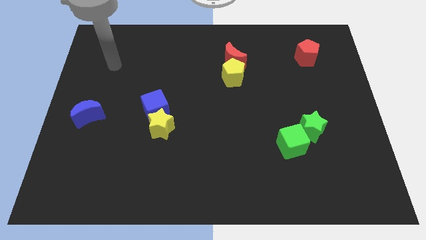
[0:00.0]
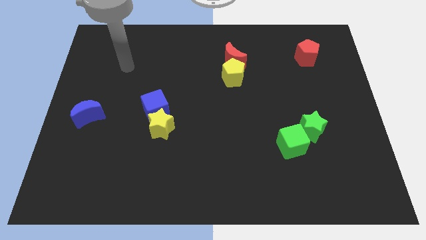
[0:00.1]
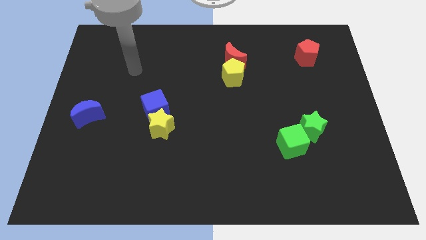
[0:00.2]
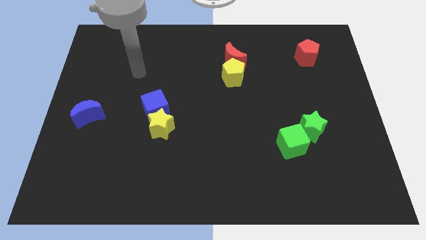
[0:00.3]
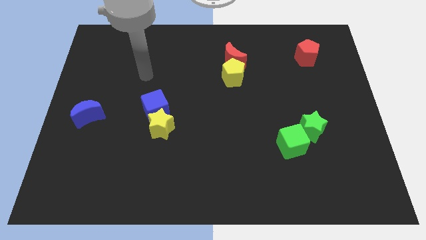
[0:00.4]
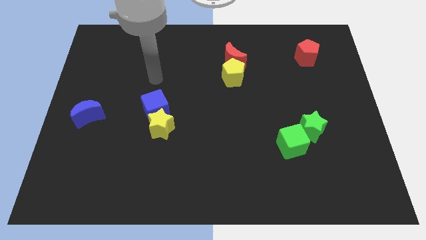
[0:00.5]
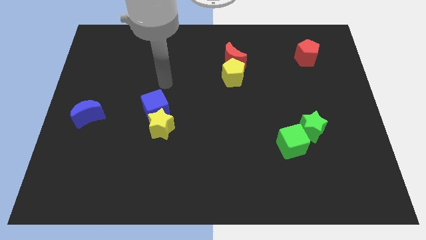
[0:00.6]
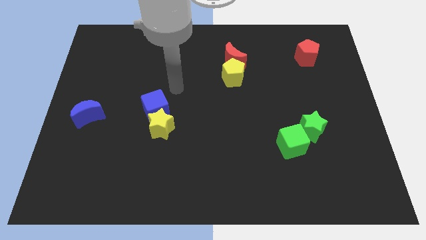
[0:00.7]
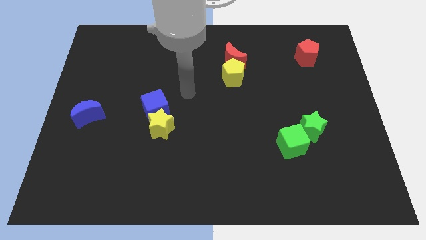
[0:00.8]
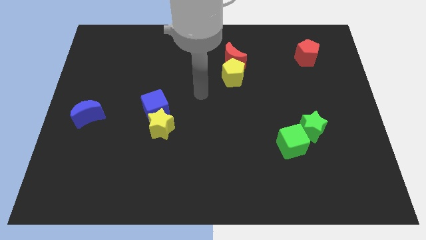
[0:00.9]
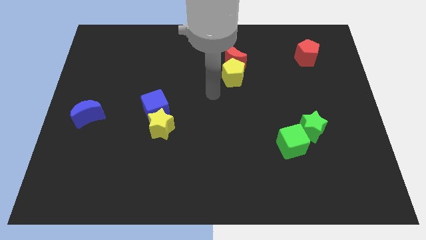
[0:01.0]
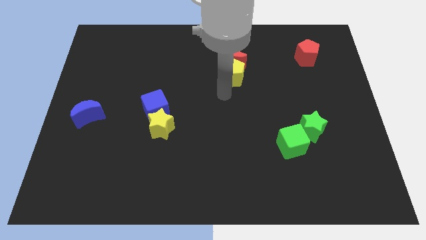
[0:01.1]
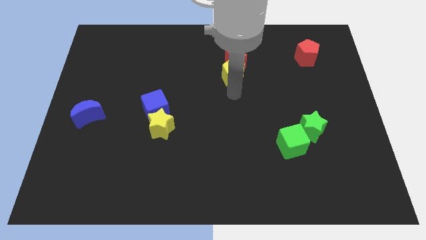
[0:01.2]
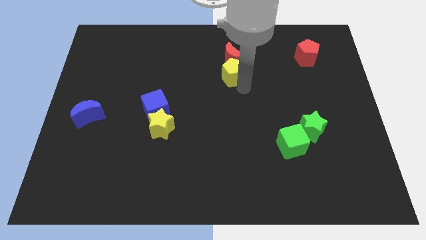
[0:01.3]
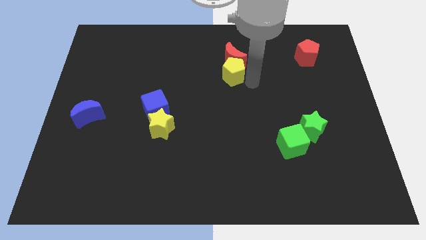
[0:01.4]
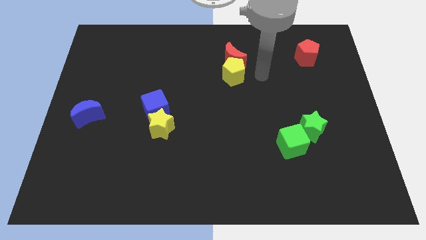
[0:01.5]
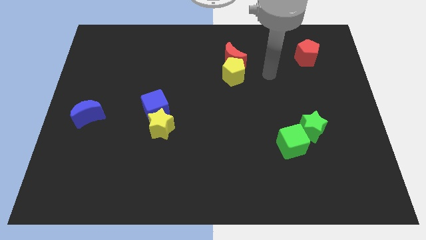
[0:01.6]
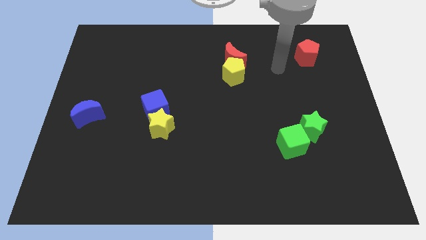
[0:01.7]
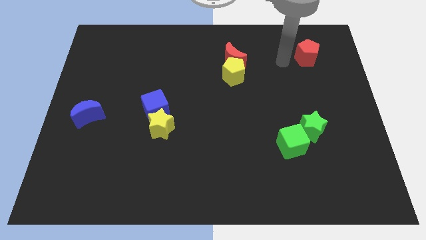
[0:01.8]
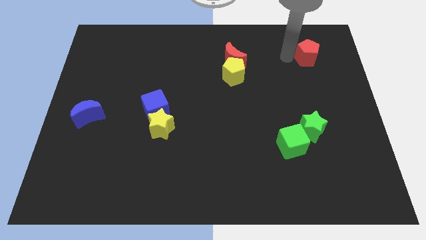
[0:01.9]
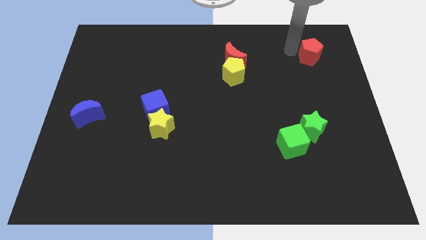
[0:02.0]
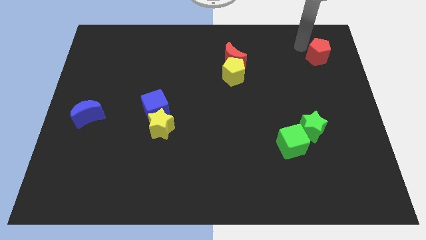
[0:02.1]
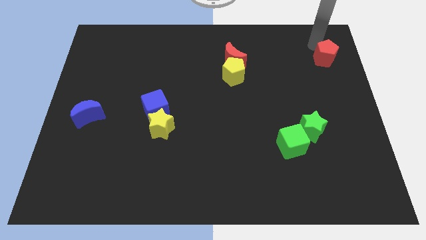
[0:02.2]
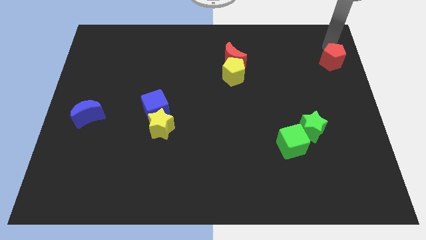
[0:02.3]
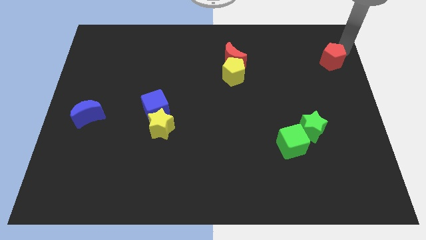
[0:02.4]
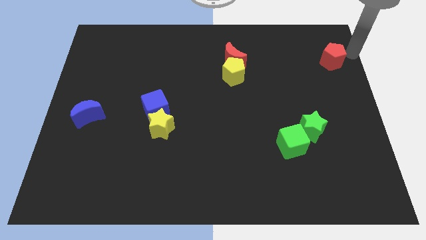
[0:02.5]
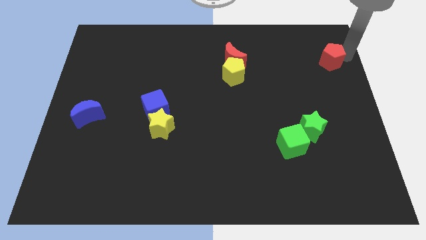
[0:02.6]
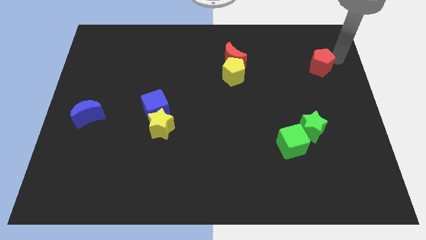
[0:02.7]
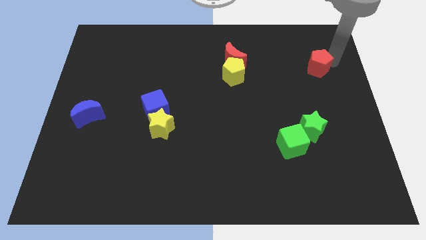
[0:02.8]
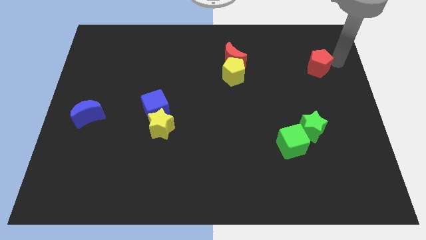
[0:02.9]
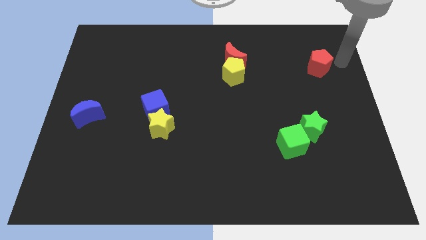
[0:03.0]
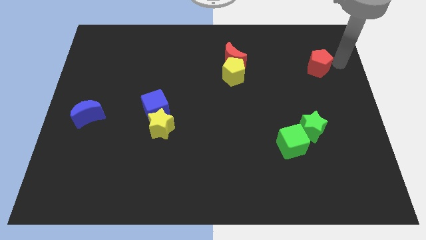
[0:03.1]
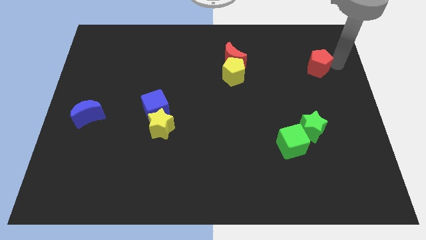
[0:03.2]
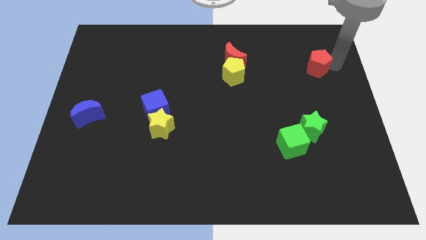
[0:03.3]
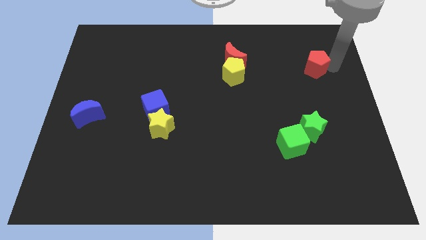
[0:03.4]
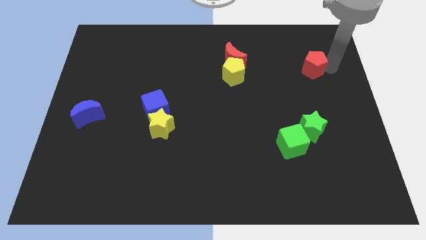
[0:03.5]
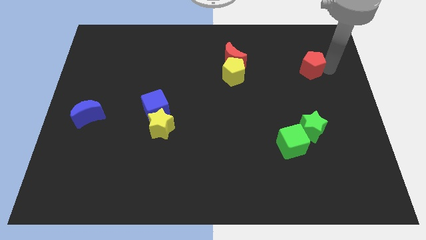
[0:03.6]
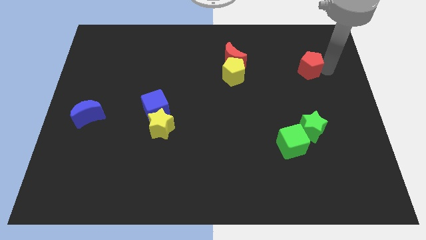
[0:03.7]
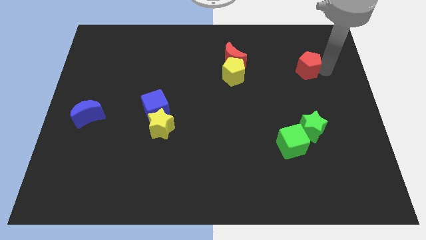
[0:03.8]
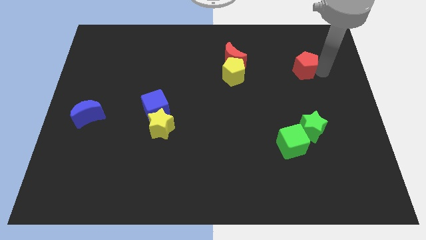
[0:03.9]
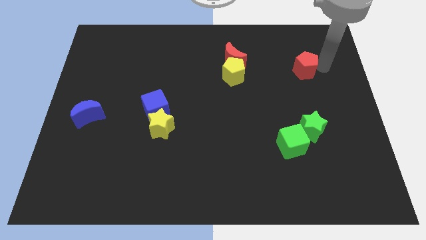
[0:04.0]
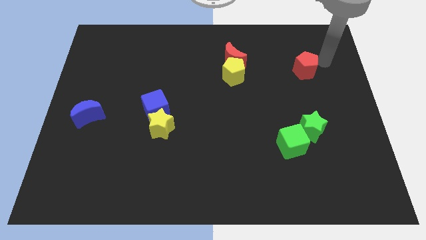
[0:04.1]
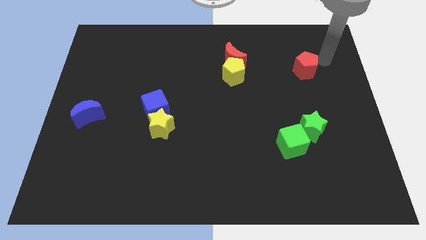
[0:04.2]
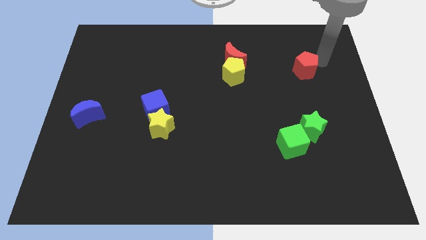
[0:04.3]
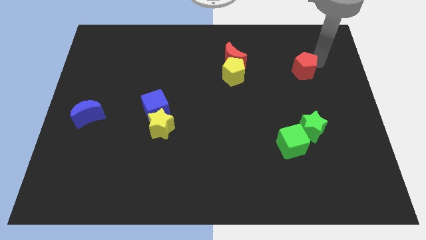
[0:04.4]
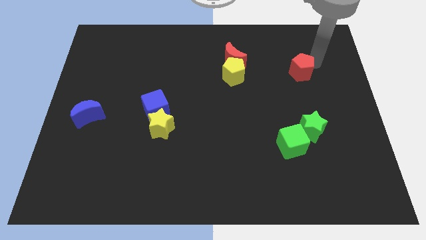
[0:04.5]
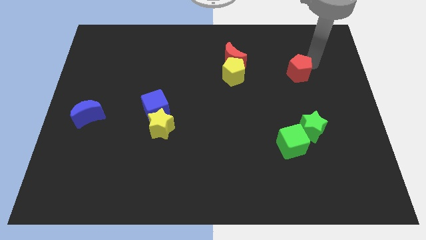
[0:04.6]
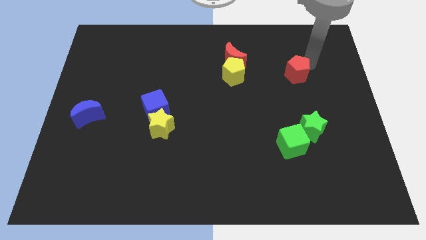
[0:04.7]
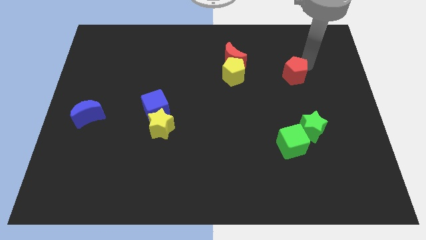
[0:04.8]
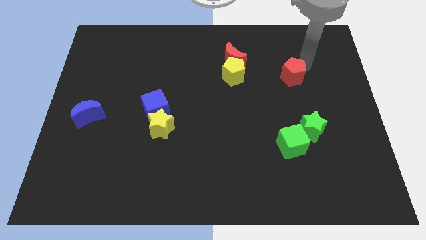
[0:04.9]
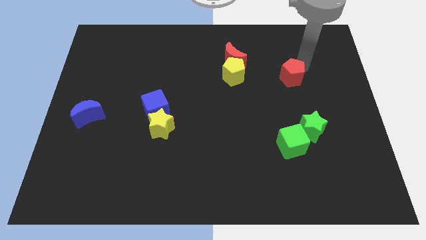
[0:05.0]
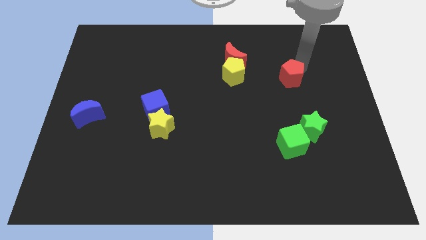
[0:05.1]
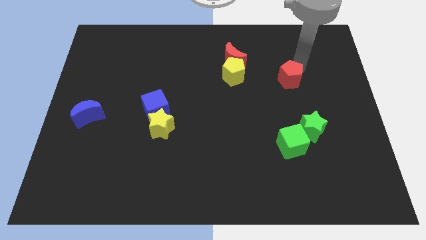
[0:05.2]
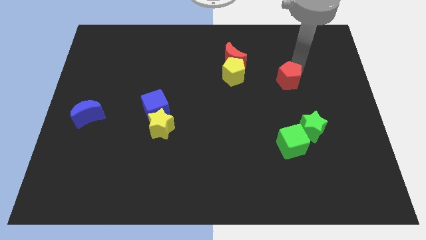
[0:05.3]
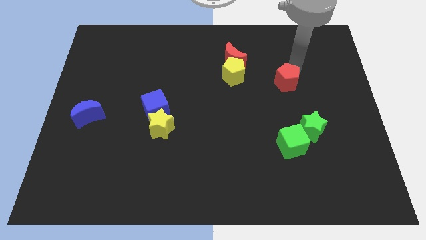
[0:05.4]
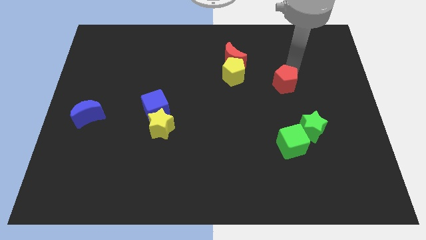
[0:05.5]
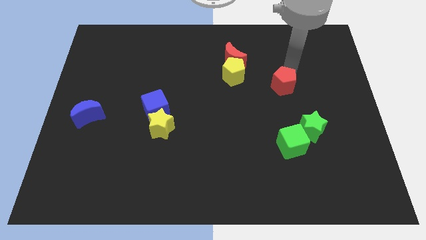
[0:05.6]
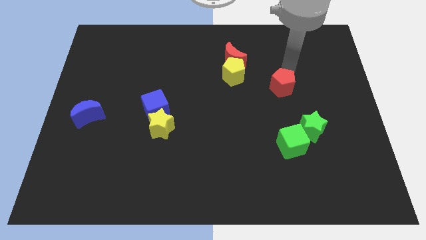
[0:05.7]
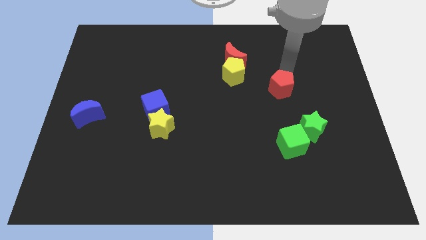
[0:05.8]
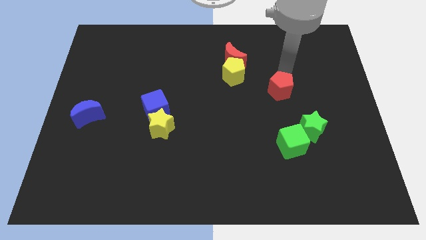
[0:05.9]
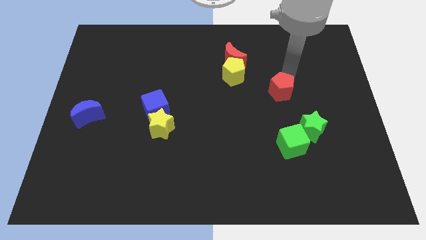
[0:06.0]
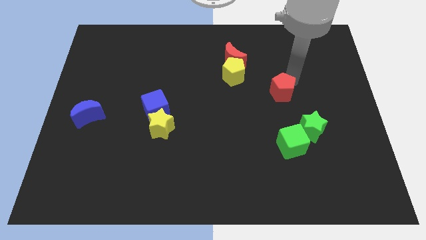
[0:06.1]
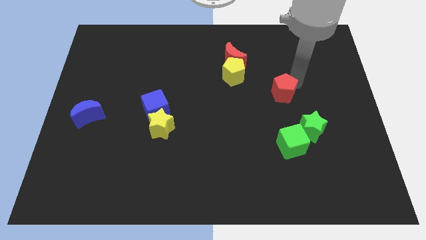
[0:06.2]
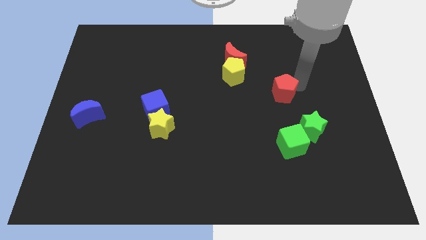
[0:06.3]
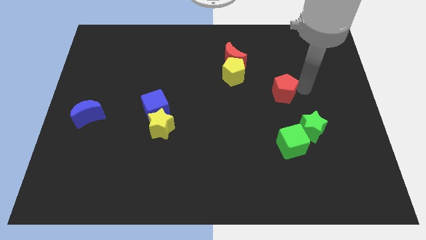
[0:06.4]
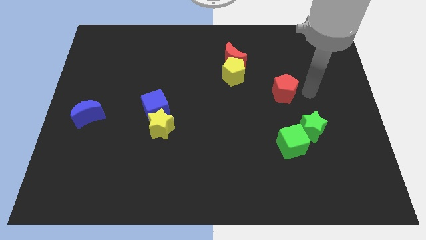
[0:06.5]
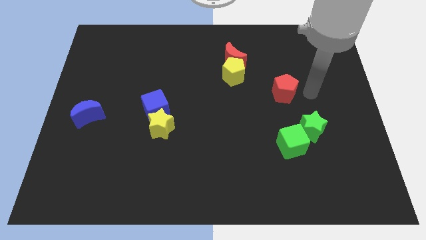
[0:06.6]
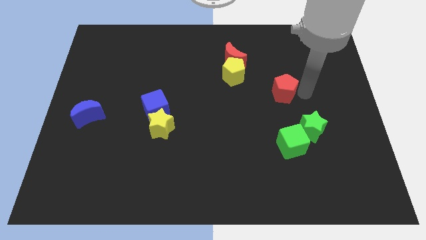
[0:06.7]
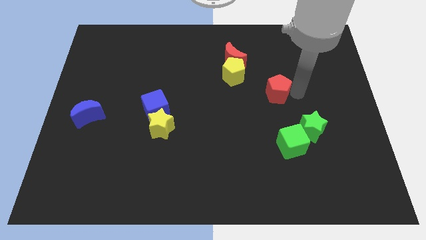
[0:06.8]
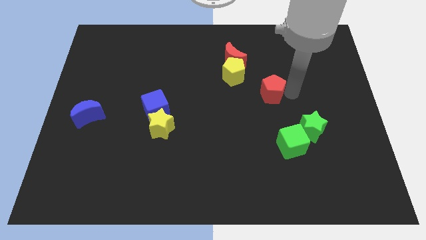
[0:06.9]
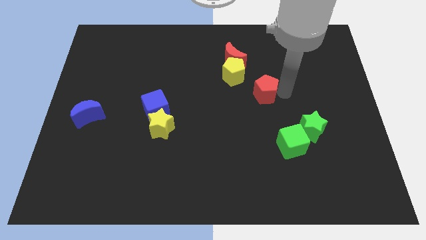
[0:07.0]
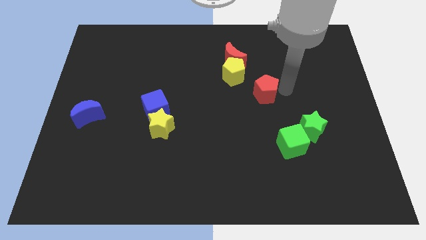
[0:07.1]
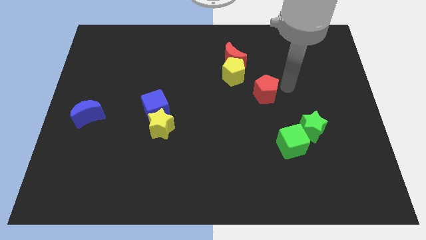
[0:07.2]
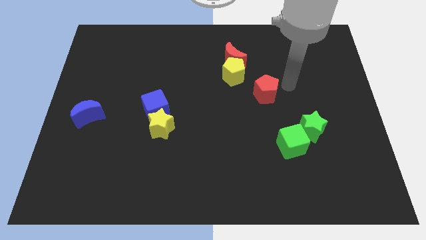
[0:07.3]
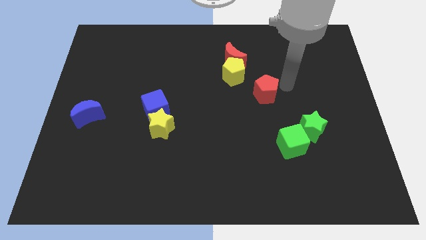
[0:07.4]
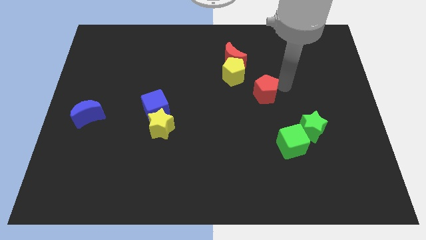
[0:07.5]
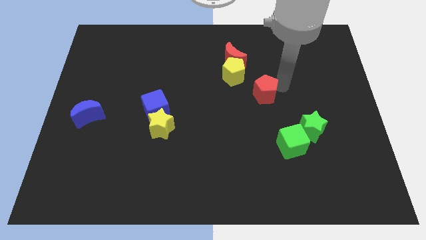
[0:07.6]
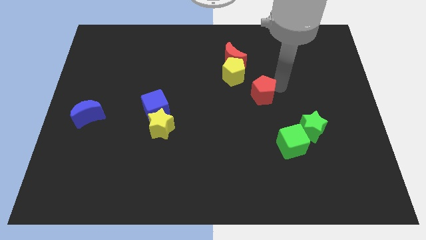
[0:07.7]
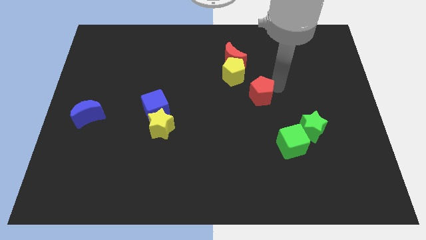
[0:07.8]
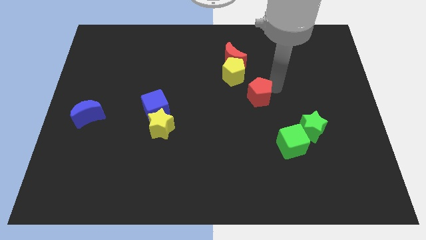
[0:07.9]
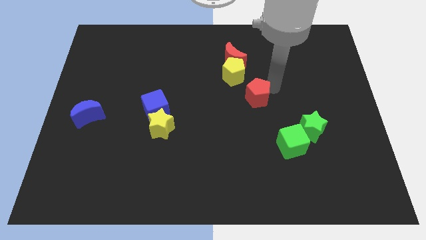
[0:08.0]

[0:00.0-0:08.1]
move the red pentagon down and left diagonally

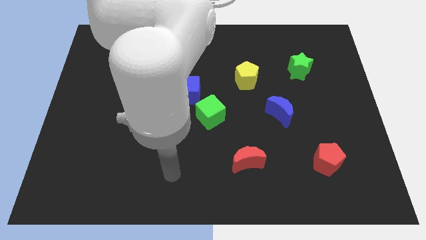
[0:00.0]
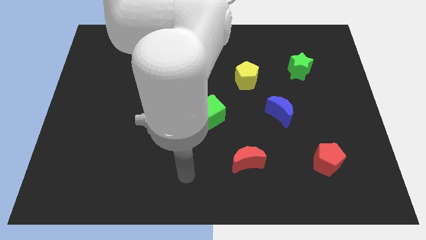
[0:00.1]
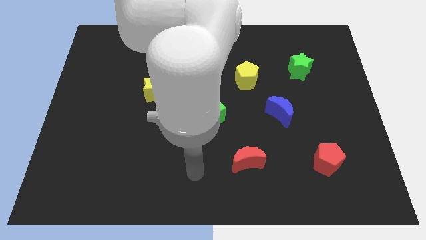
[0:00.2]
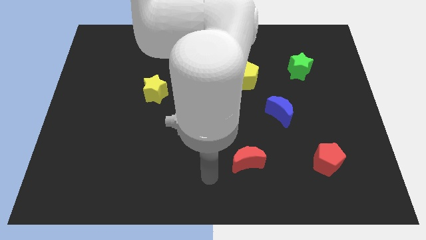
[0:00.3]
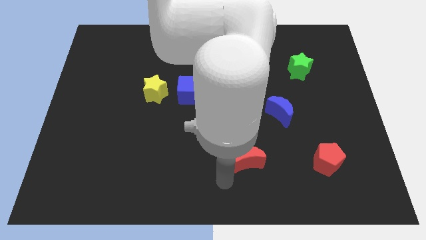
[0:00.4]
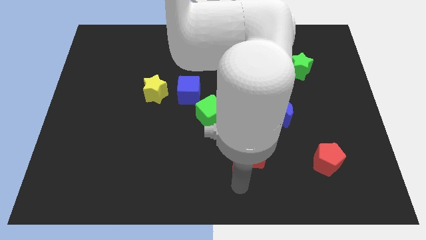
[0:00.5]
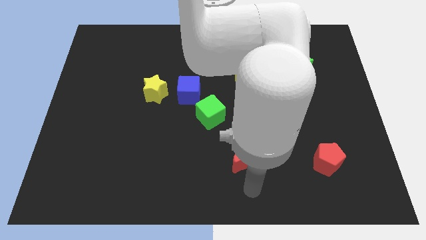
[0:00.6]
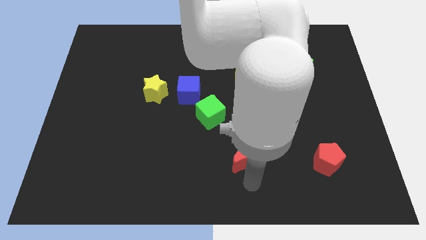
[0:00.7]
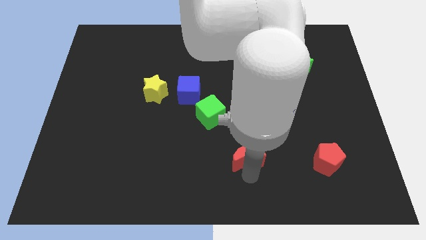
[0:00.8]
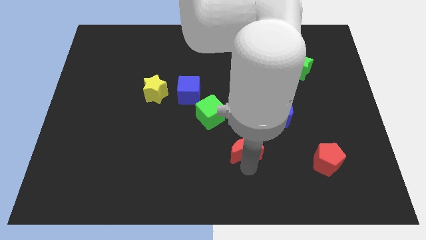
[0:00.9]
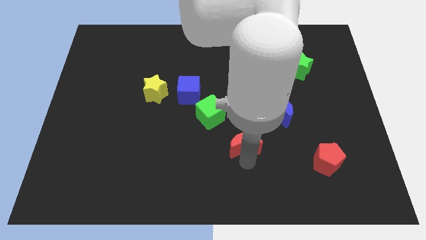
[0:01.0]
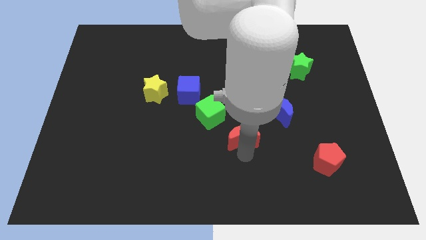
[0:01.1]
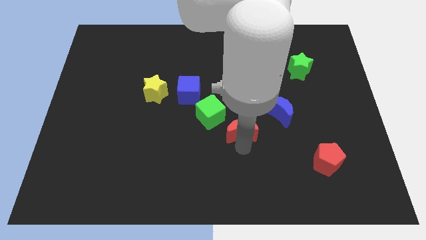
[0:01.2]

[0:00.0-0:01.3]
slightly move the red moon upwards
